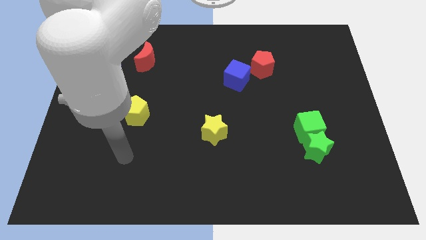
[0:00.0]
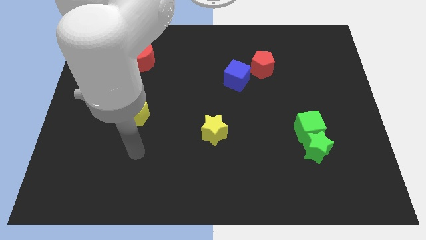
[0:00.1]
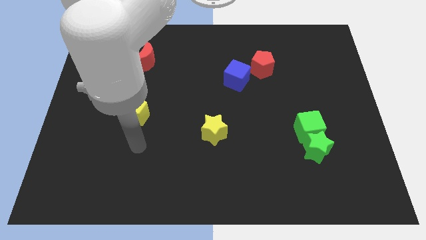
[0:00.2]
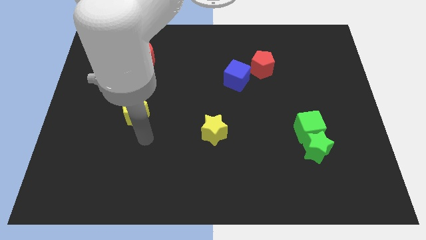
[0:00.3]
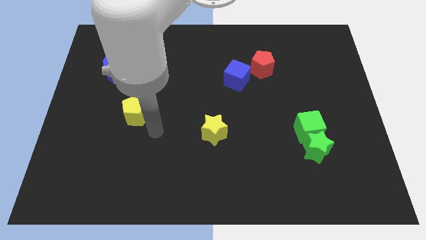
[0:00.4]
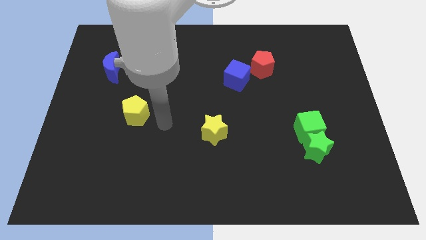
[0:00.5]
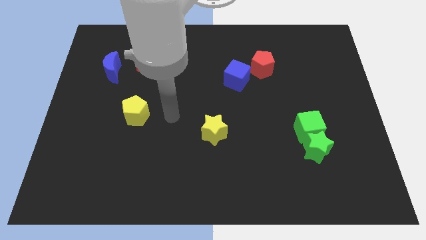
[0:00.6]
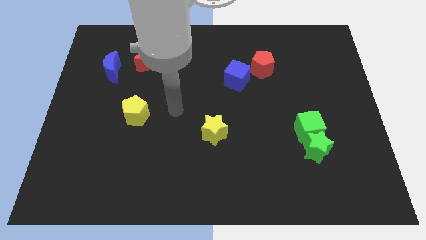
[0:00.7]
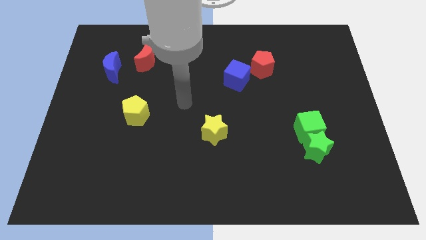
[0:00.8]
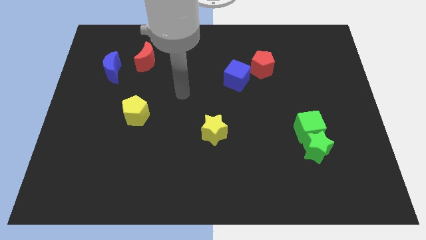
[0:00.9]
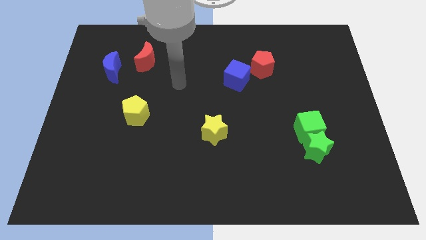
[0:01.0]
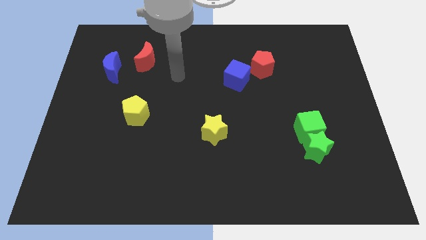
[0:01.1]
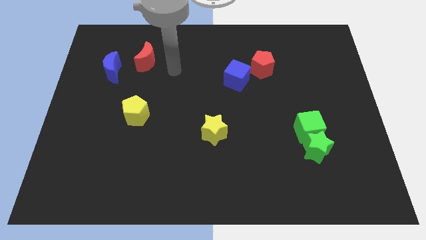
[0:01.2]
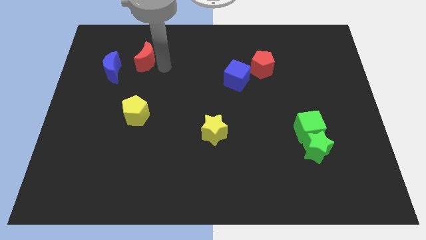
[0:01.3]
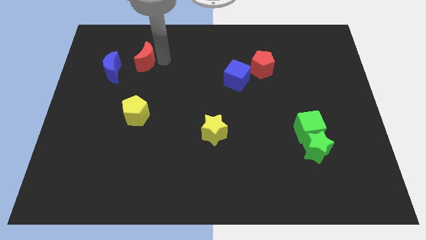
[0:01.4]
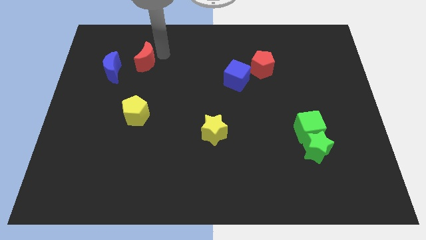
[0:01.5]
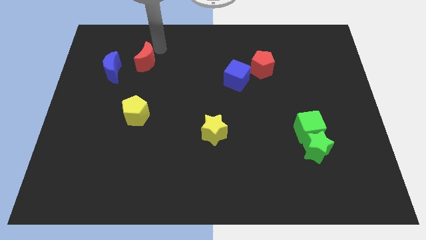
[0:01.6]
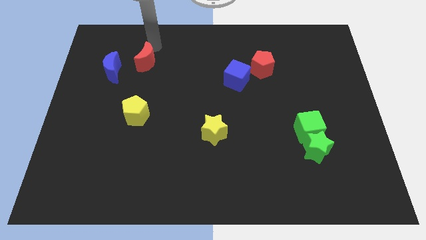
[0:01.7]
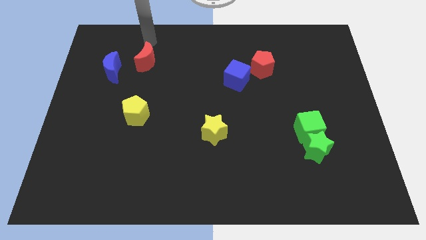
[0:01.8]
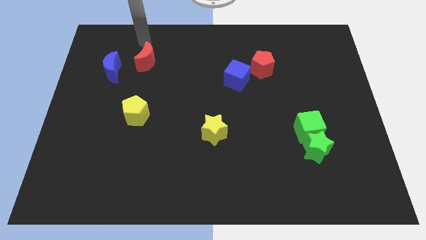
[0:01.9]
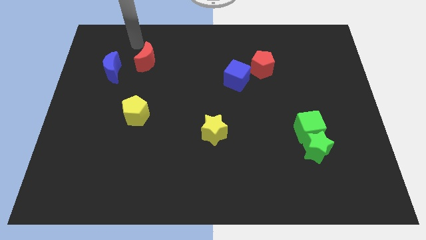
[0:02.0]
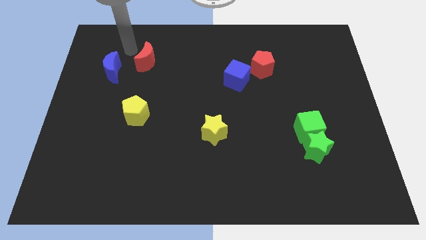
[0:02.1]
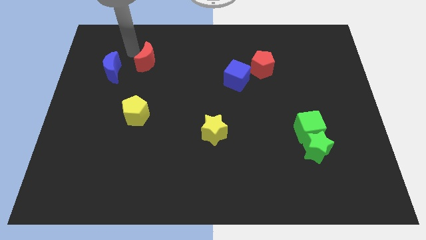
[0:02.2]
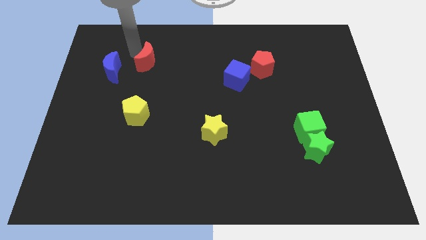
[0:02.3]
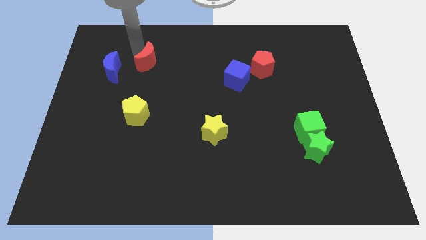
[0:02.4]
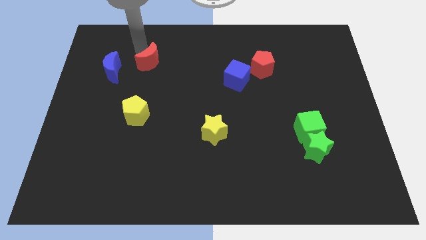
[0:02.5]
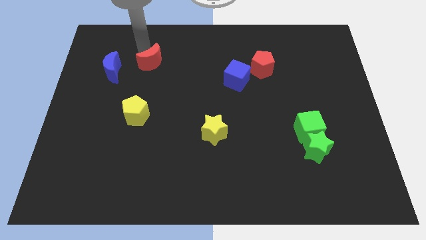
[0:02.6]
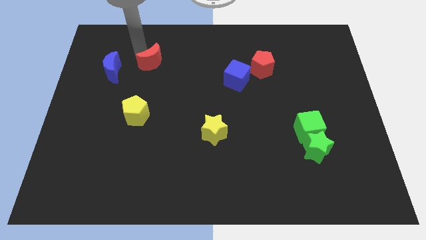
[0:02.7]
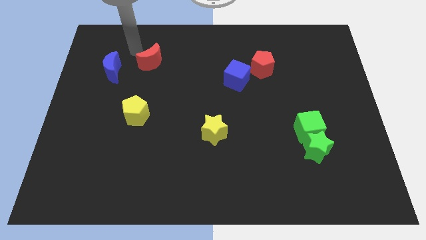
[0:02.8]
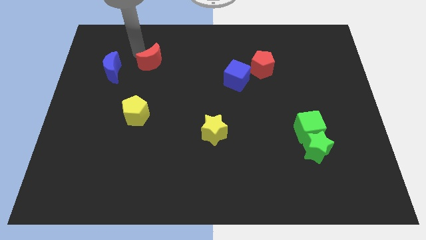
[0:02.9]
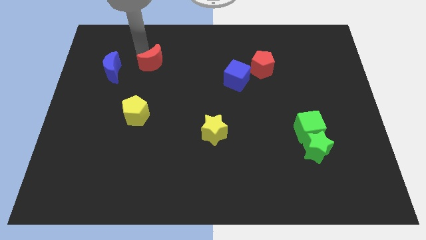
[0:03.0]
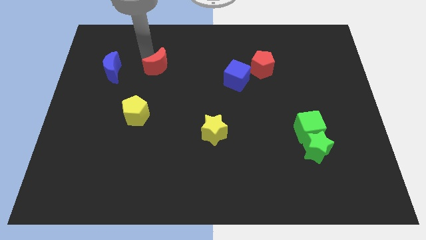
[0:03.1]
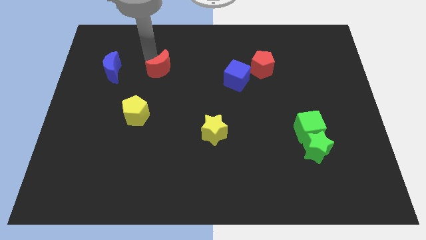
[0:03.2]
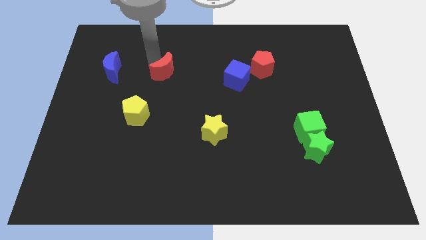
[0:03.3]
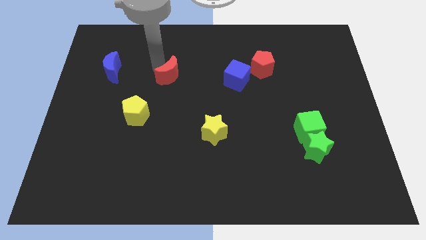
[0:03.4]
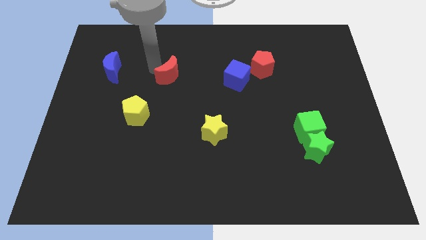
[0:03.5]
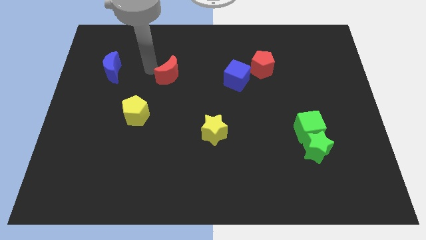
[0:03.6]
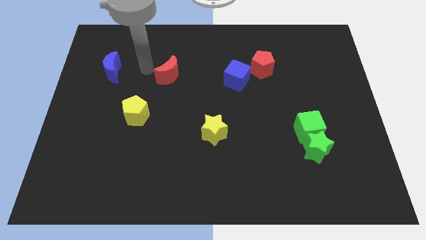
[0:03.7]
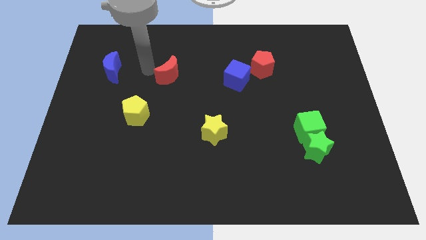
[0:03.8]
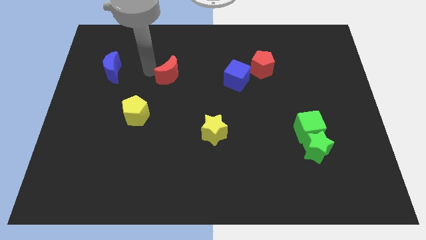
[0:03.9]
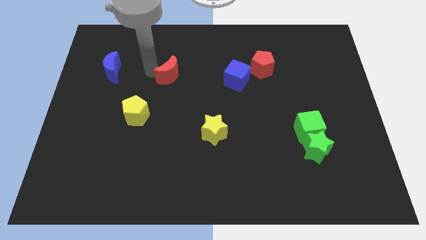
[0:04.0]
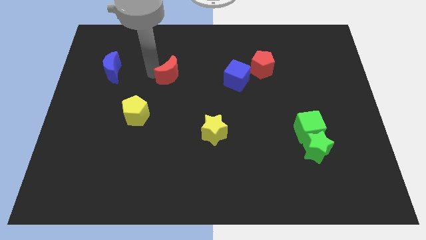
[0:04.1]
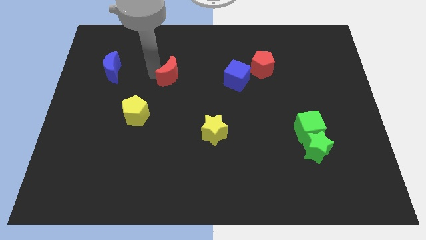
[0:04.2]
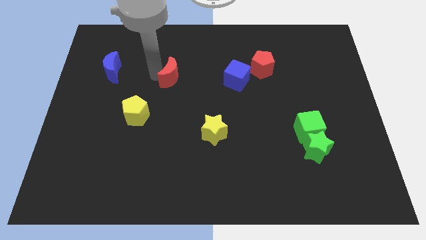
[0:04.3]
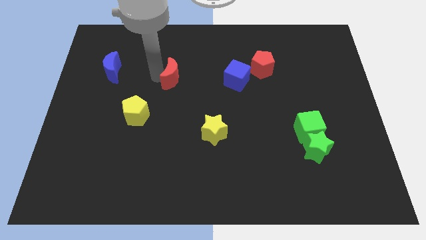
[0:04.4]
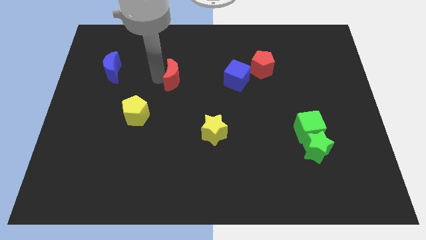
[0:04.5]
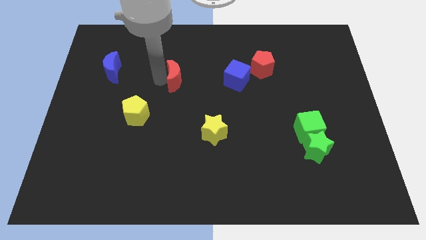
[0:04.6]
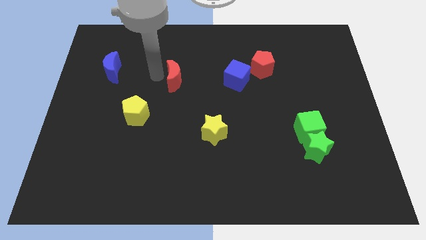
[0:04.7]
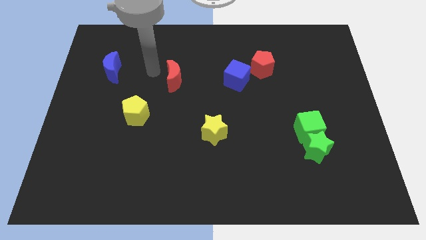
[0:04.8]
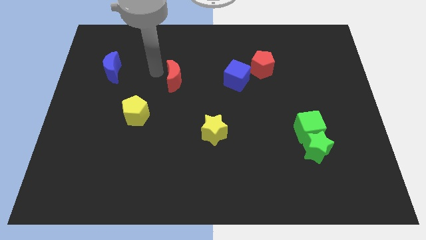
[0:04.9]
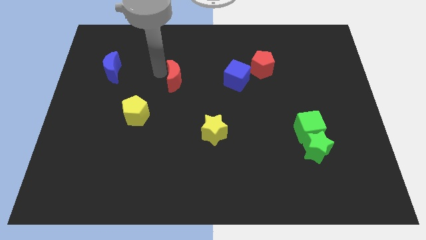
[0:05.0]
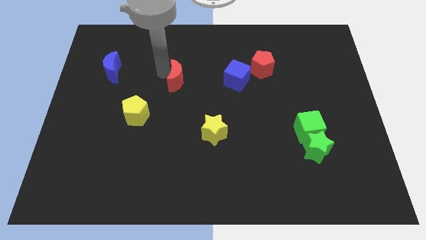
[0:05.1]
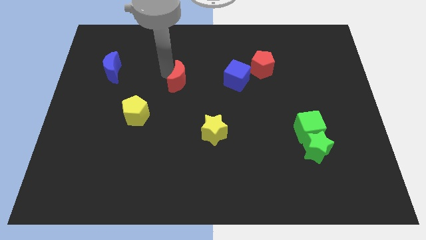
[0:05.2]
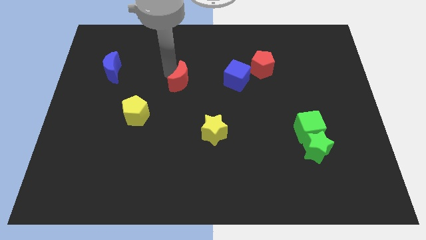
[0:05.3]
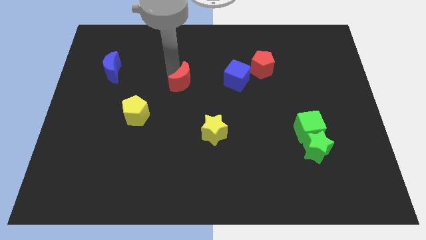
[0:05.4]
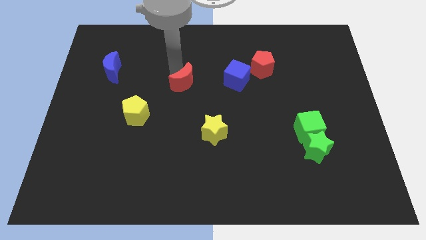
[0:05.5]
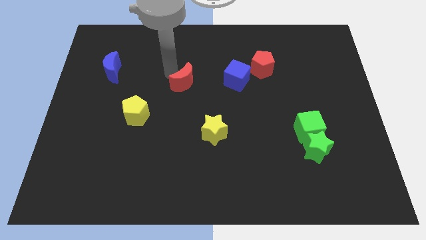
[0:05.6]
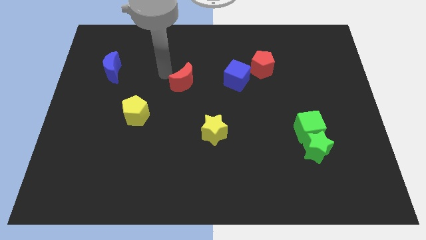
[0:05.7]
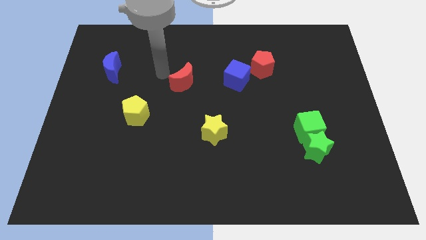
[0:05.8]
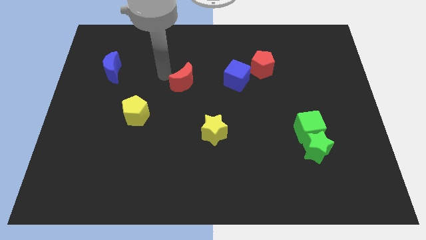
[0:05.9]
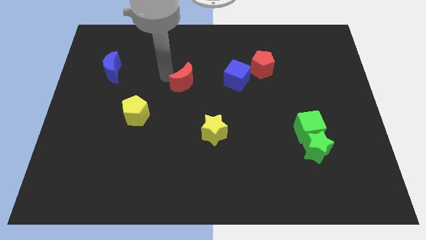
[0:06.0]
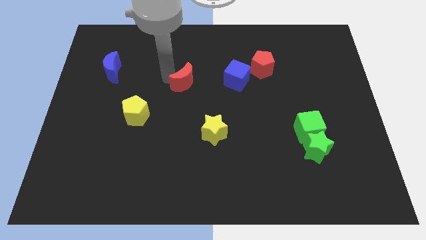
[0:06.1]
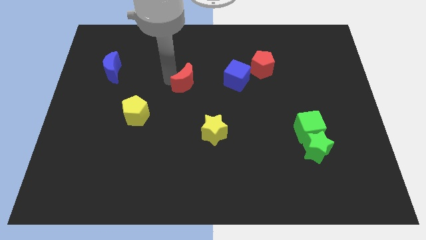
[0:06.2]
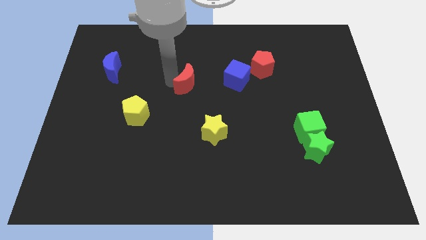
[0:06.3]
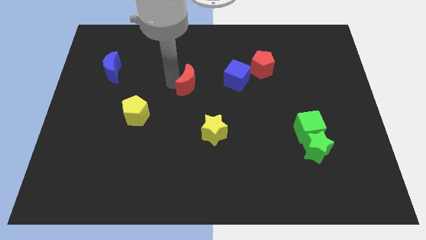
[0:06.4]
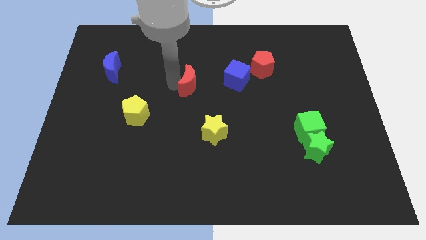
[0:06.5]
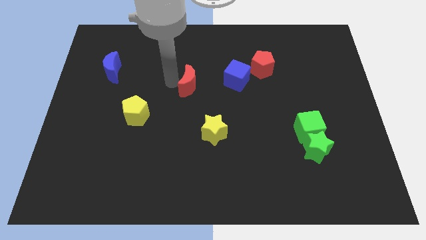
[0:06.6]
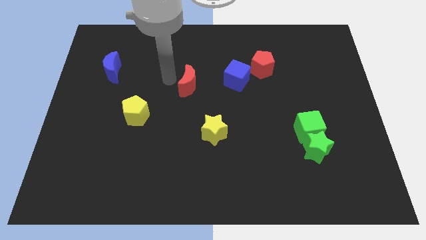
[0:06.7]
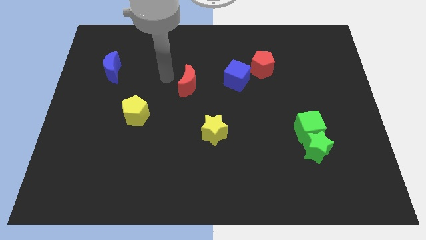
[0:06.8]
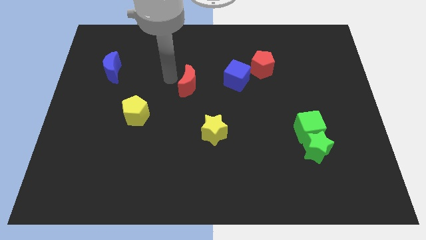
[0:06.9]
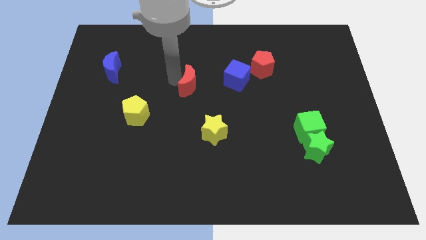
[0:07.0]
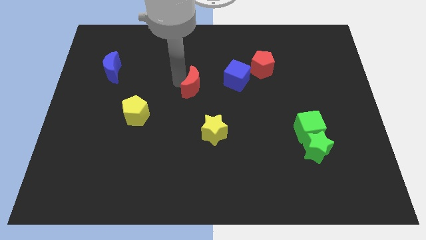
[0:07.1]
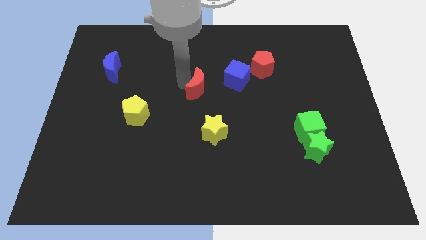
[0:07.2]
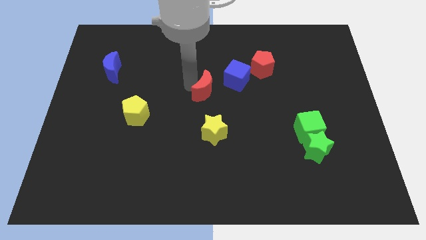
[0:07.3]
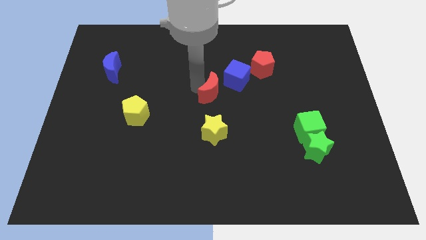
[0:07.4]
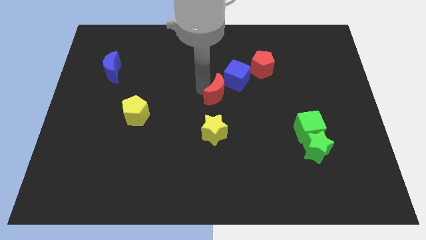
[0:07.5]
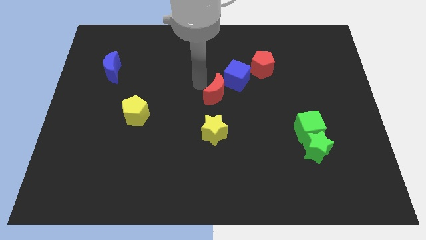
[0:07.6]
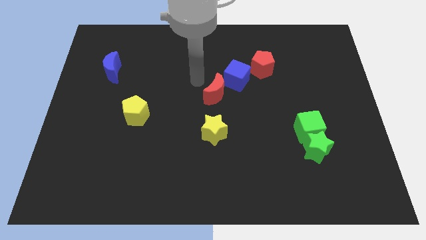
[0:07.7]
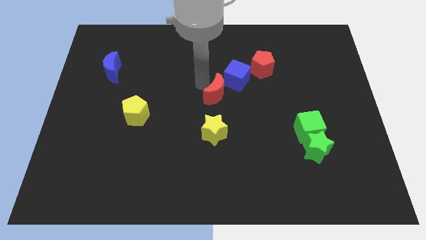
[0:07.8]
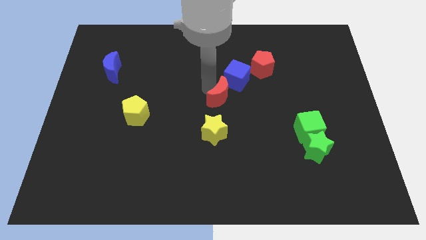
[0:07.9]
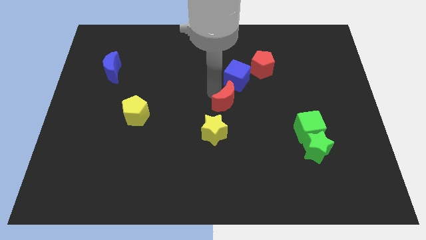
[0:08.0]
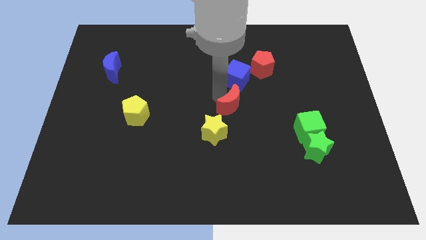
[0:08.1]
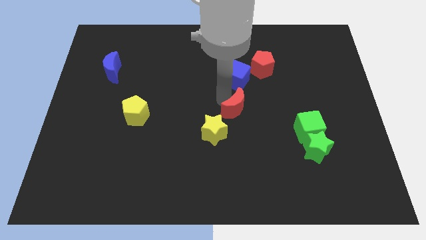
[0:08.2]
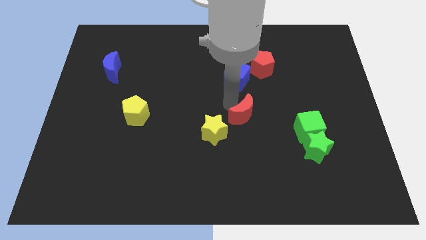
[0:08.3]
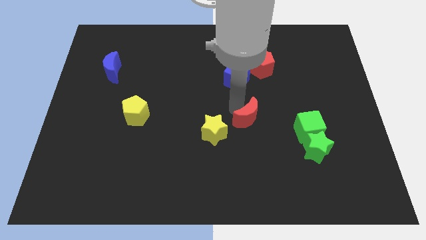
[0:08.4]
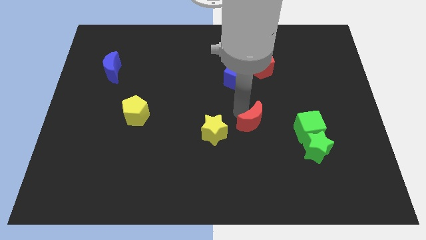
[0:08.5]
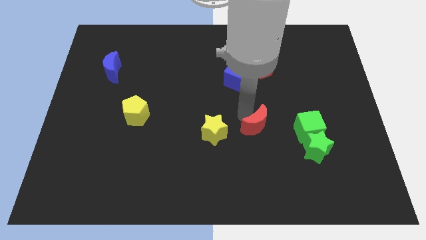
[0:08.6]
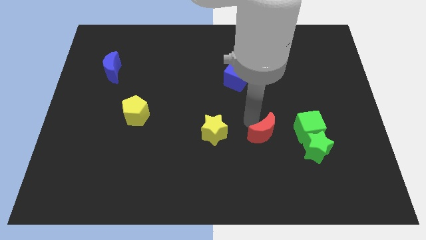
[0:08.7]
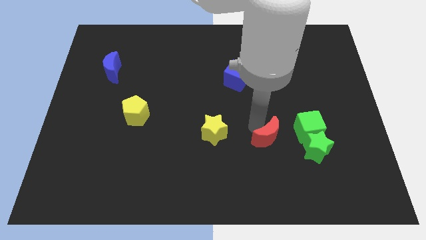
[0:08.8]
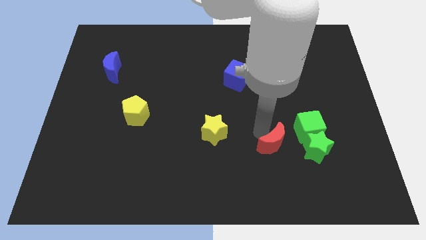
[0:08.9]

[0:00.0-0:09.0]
slide the red moon diagonally down and to the left of the green cube
